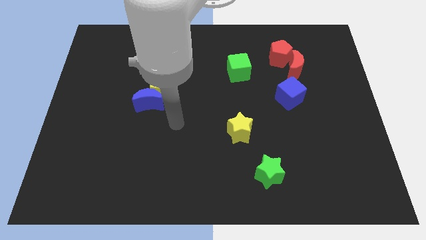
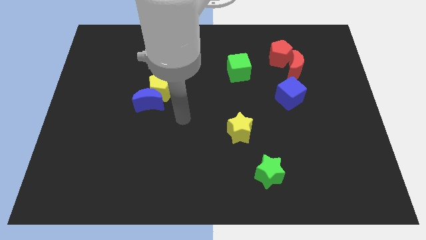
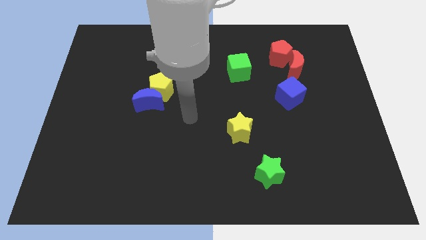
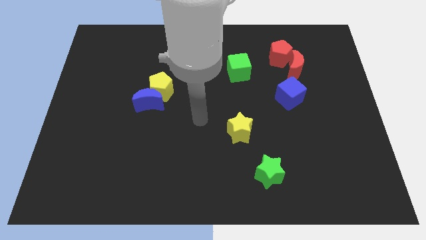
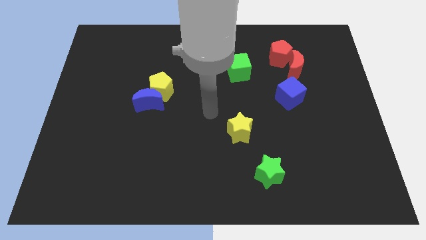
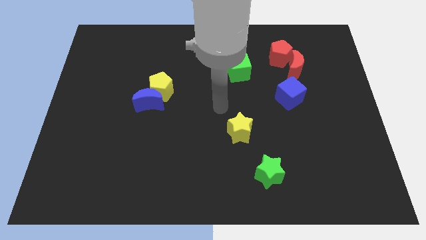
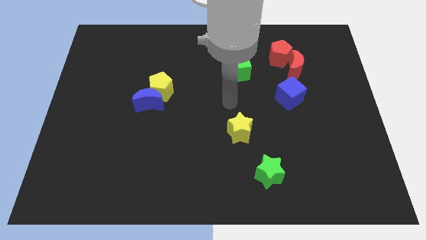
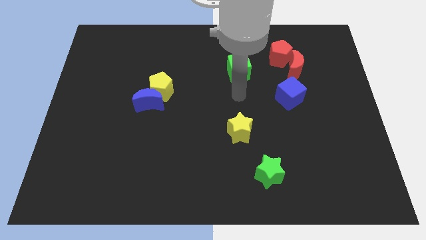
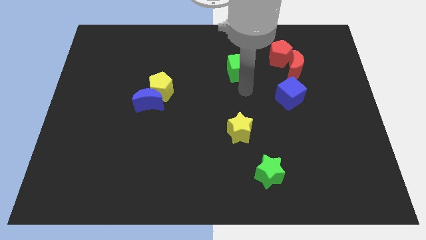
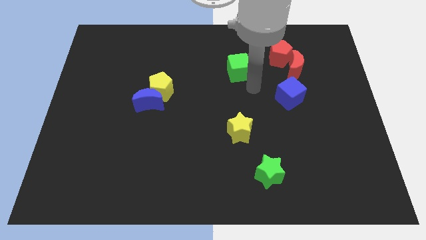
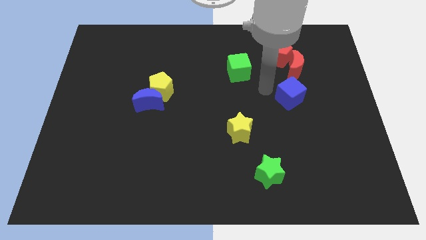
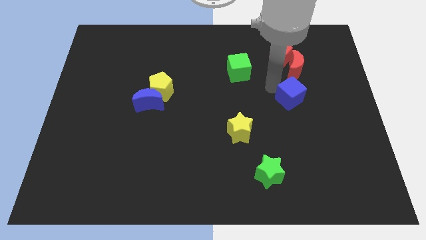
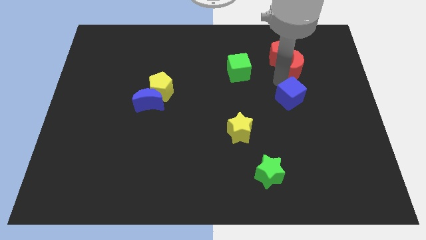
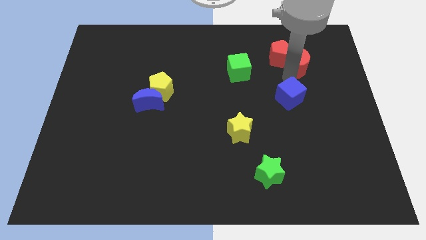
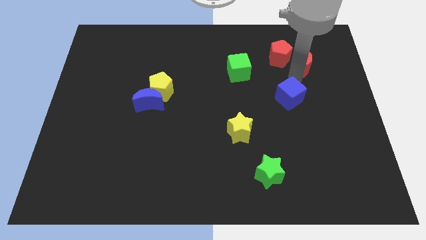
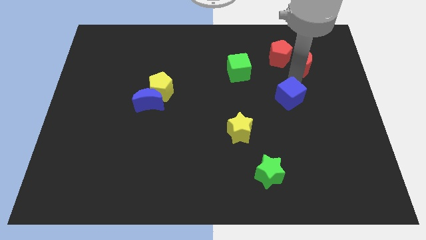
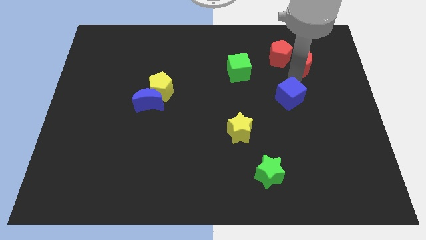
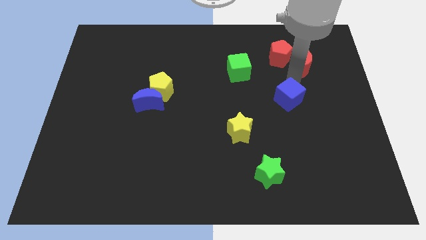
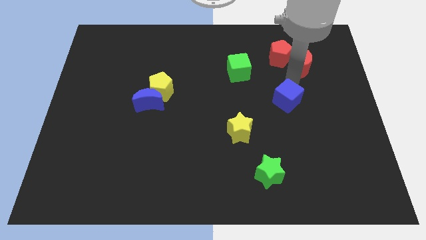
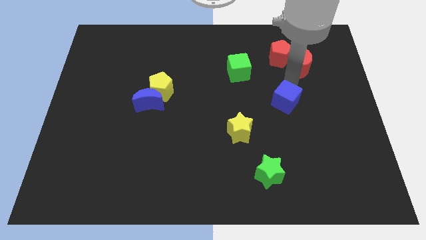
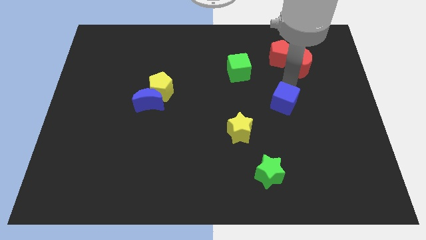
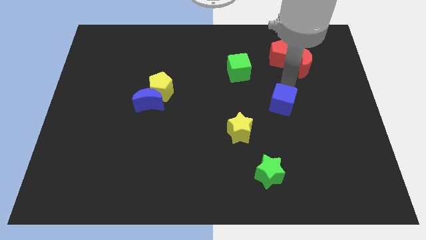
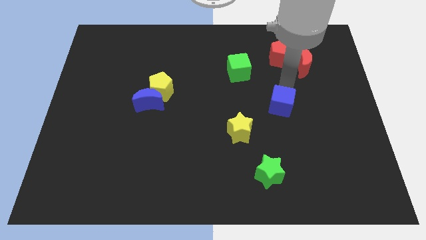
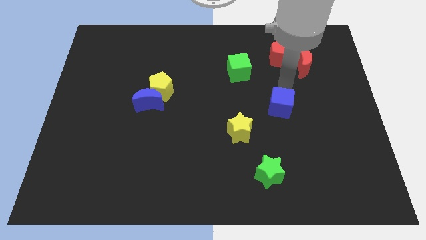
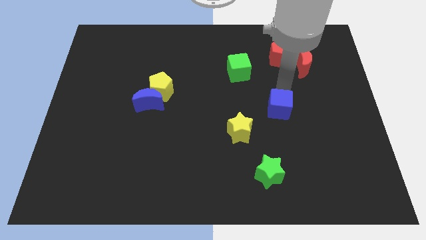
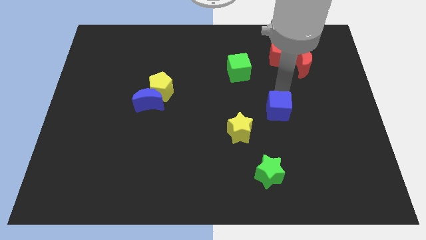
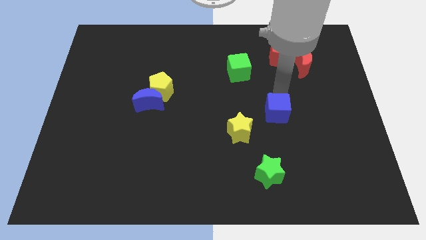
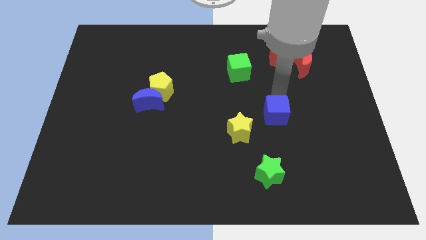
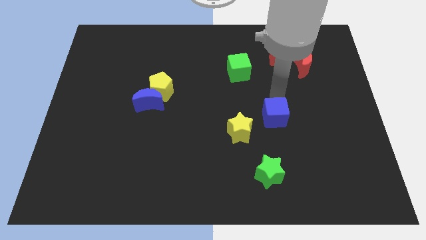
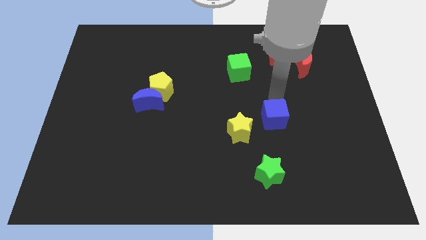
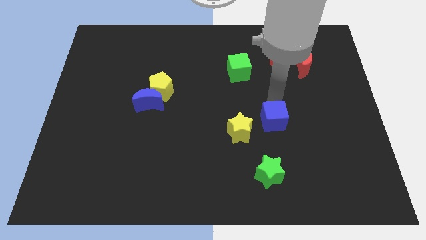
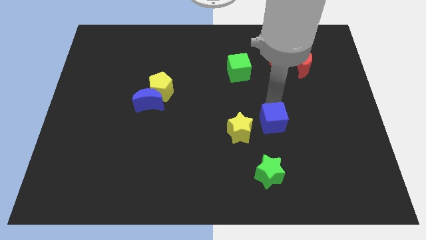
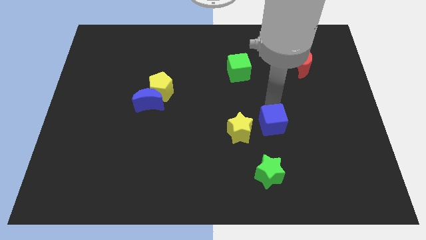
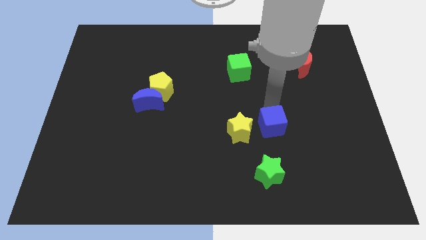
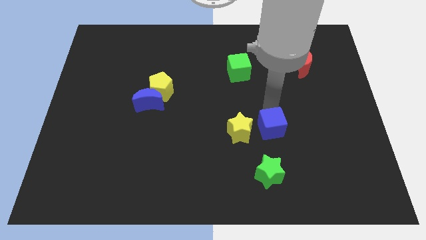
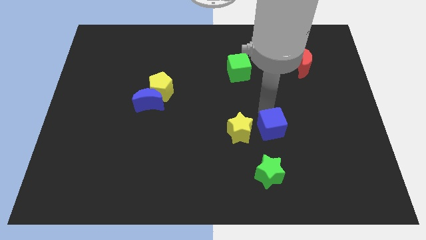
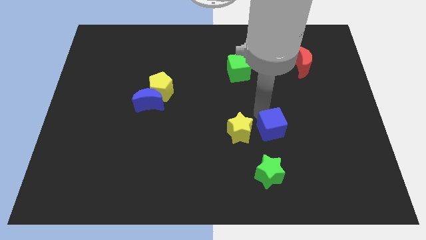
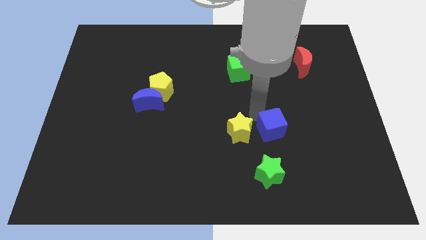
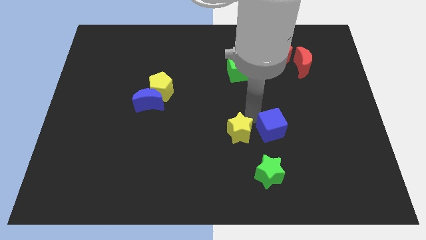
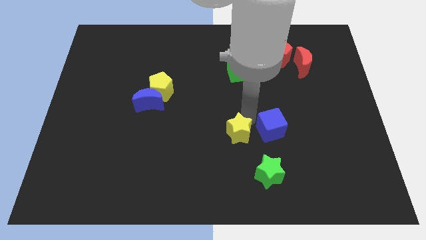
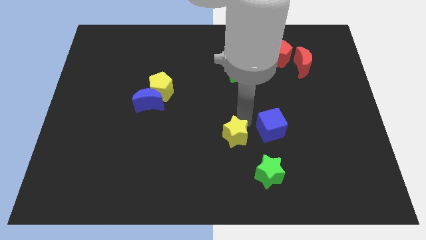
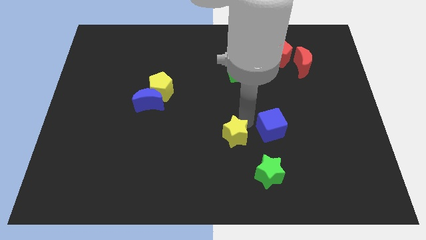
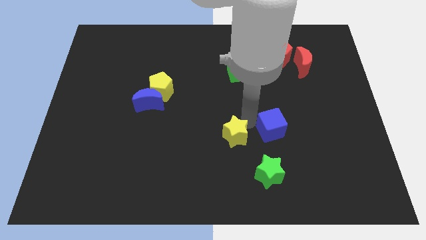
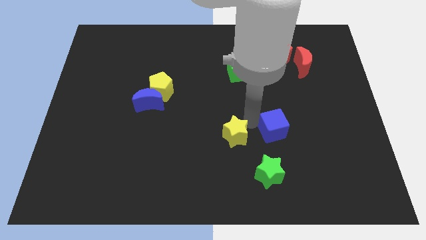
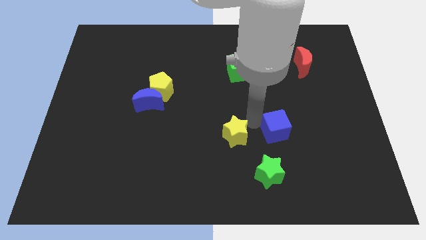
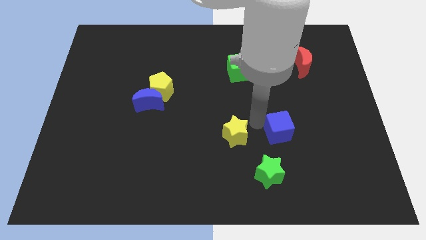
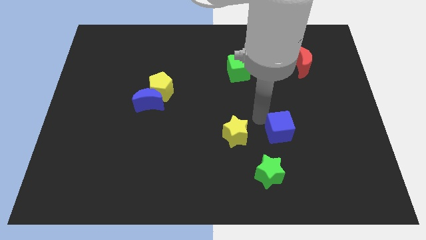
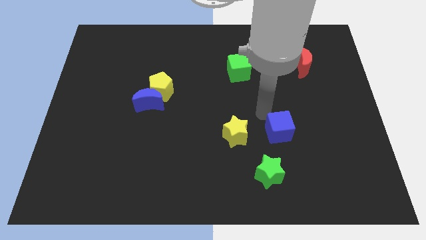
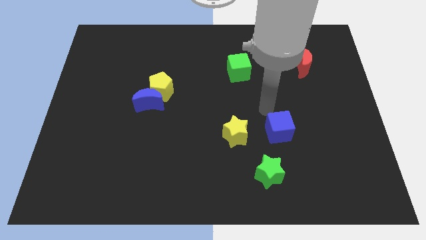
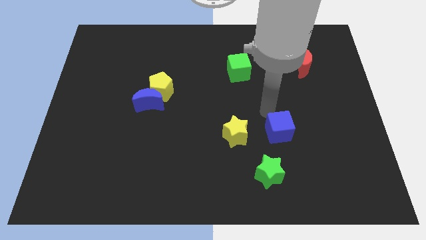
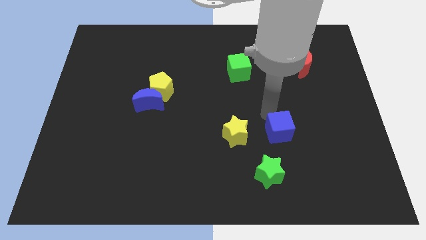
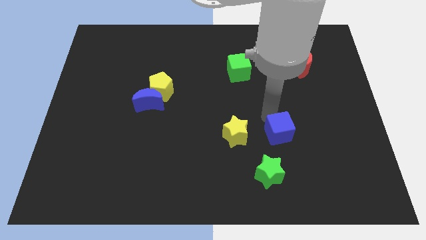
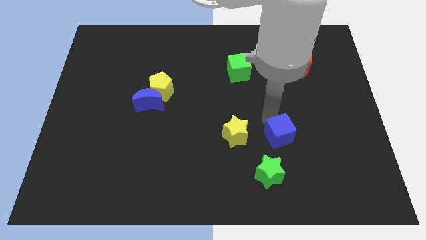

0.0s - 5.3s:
slide the blue cube to the top right side of the green star

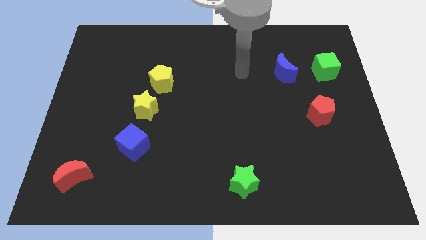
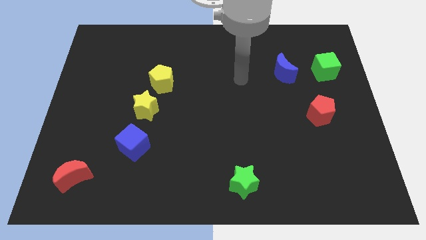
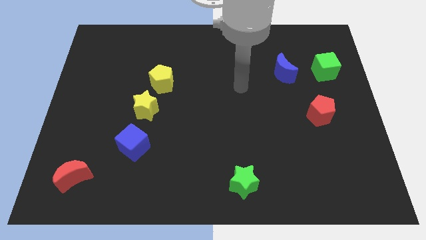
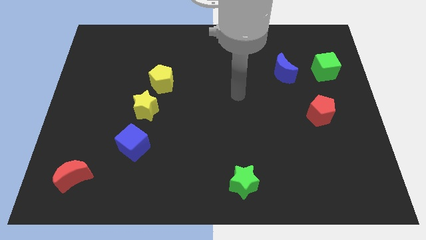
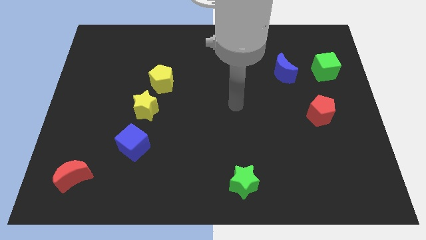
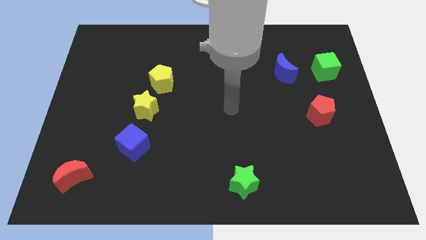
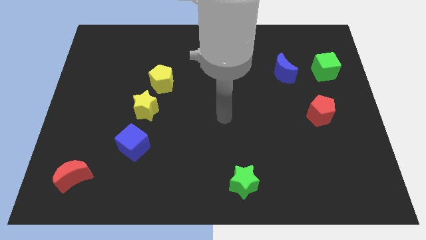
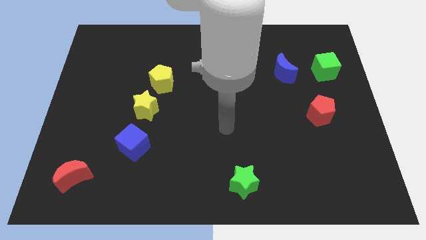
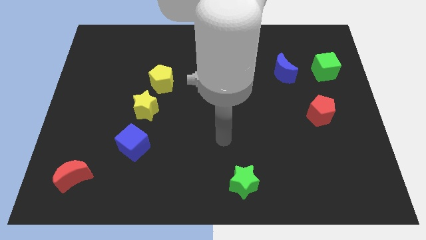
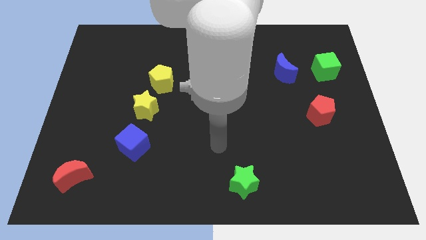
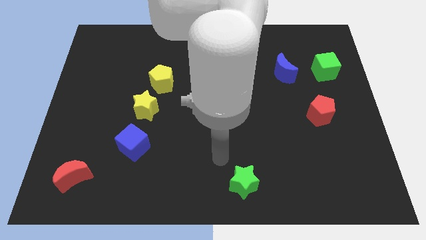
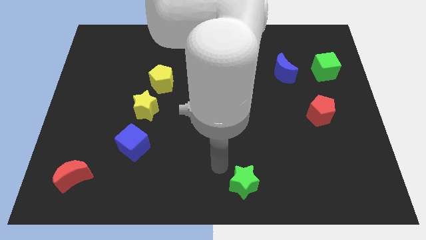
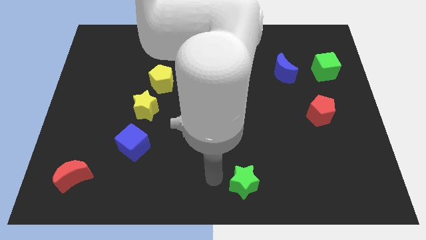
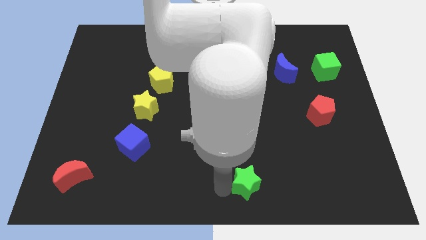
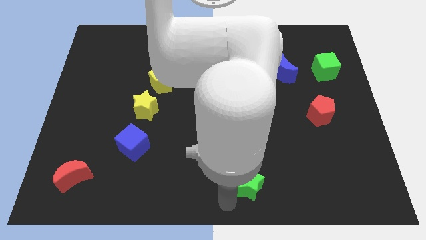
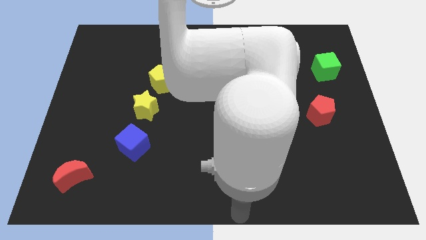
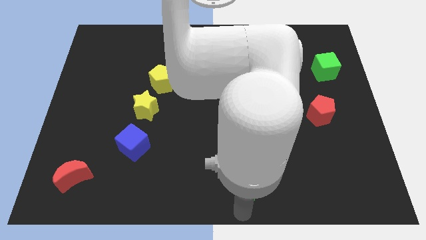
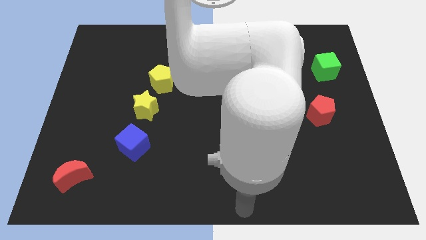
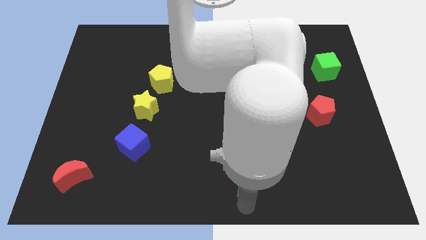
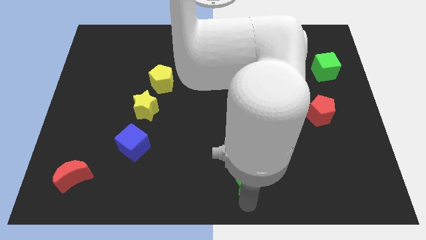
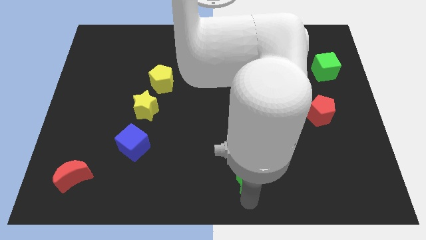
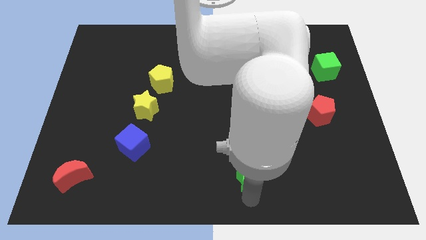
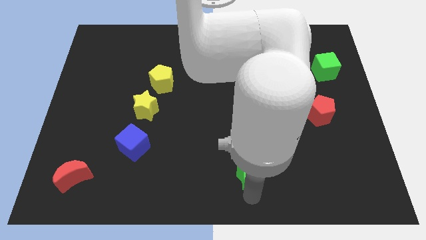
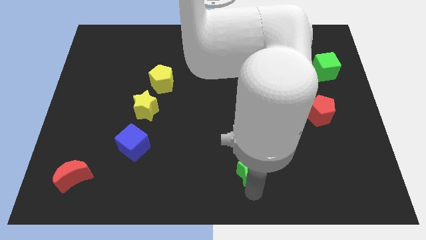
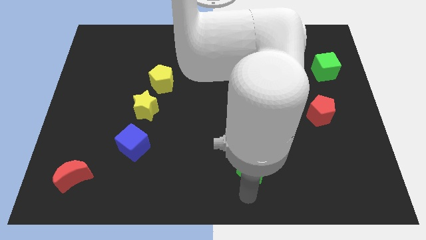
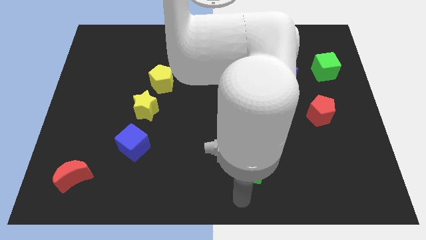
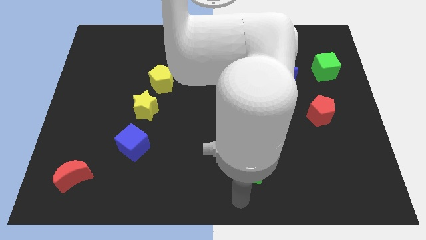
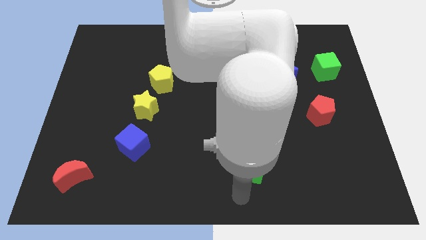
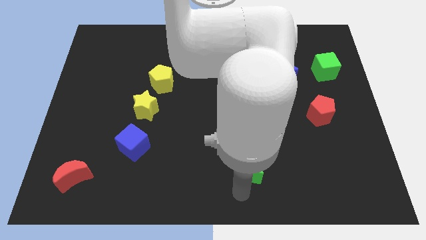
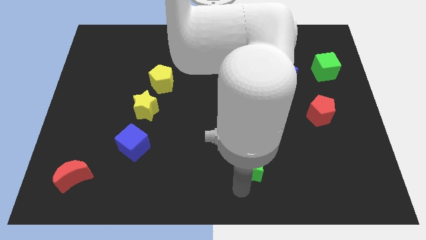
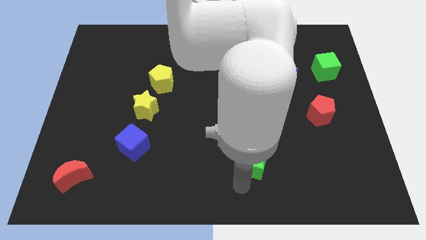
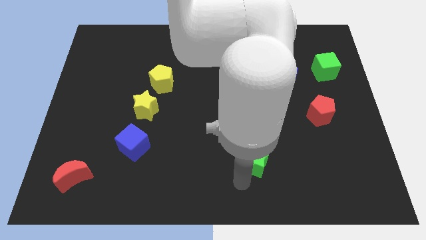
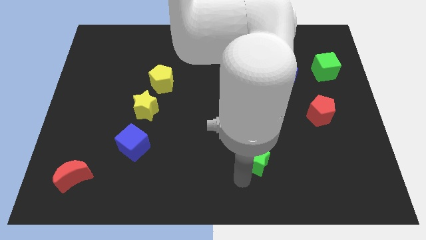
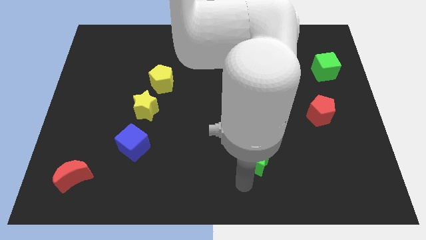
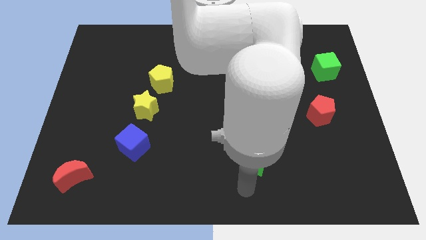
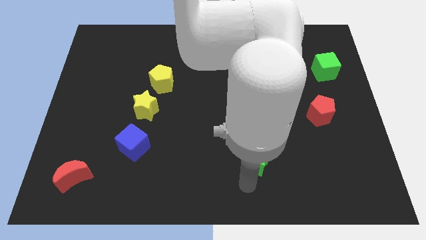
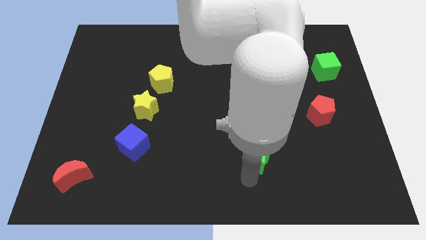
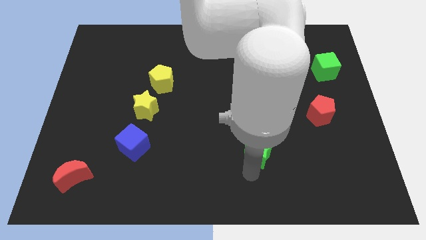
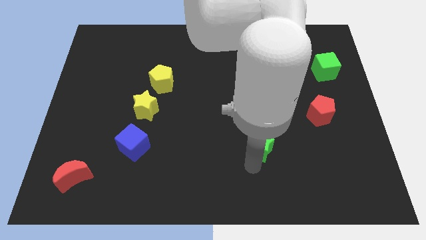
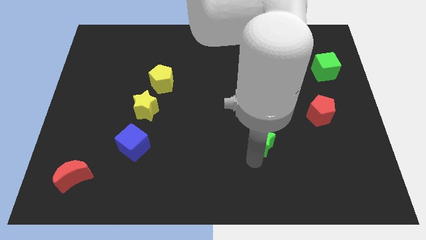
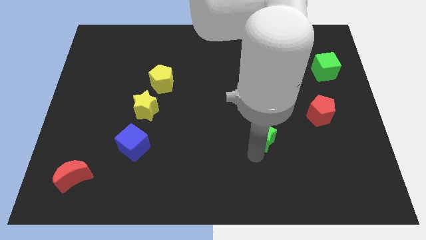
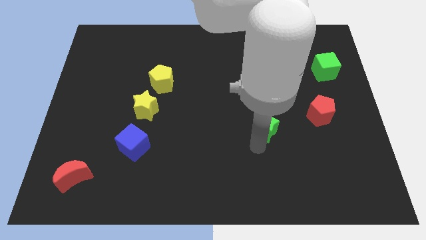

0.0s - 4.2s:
put the green star to the left of the red pentagon
